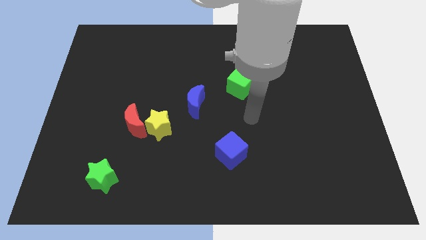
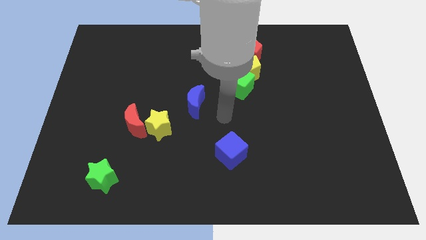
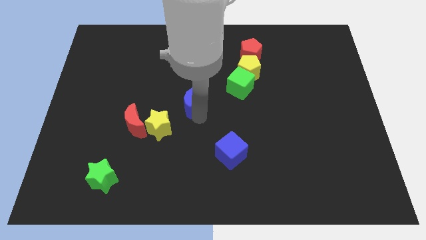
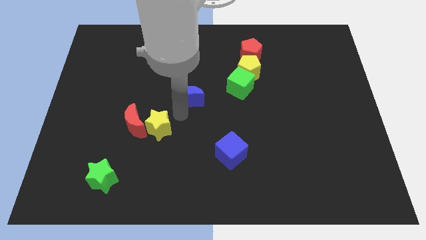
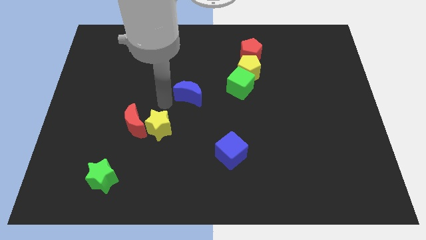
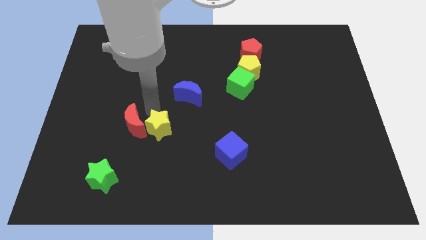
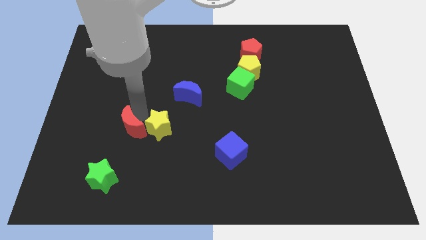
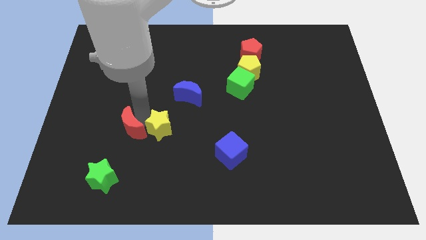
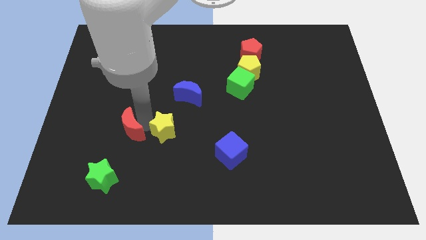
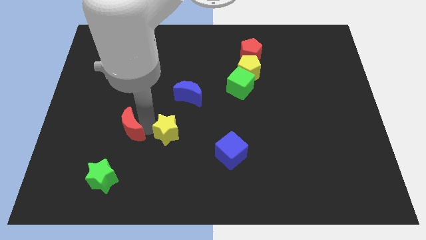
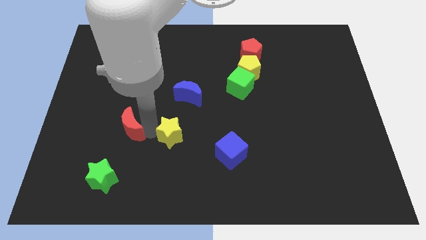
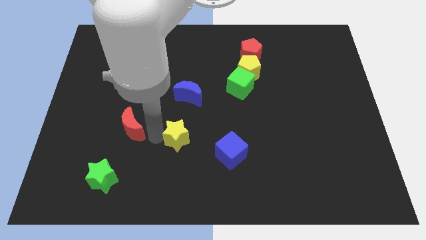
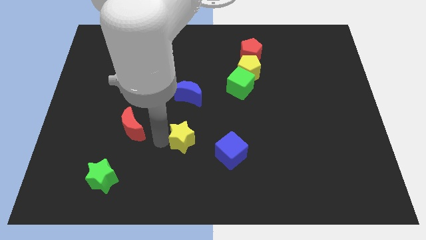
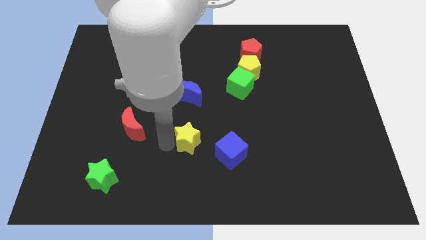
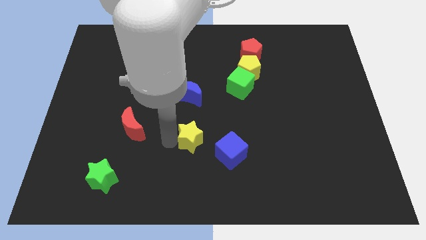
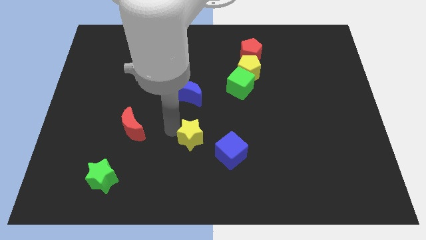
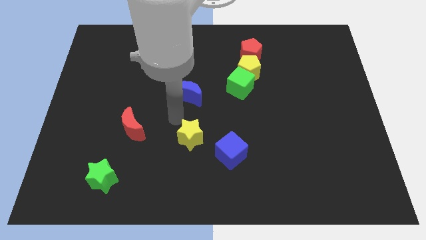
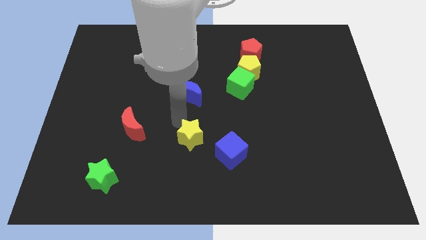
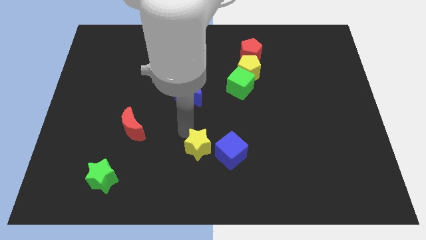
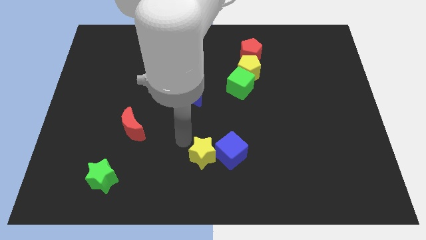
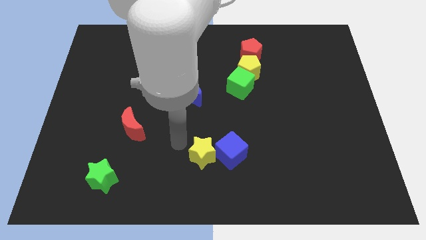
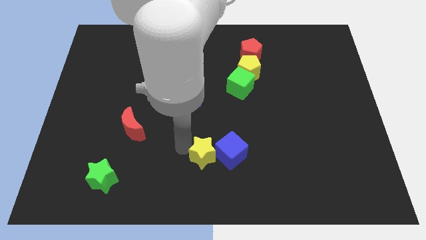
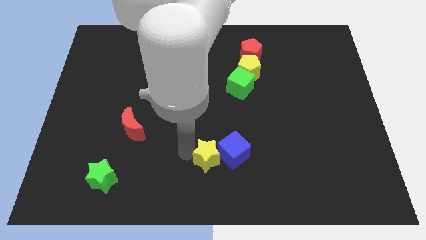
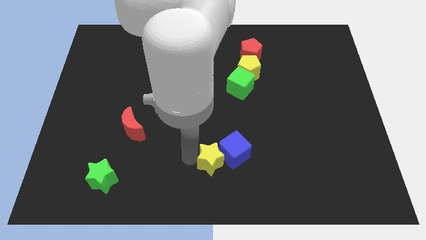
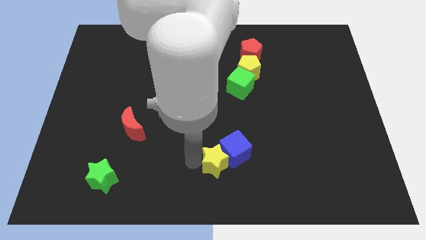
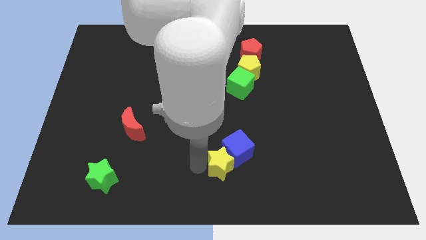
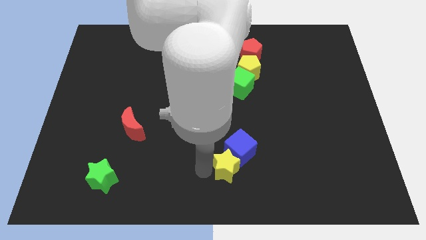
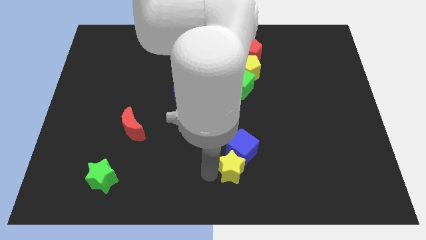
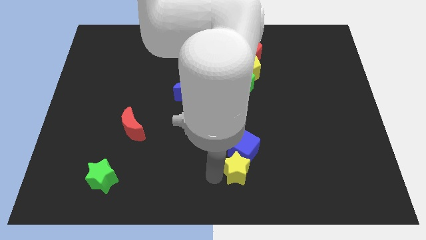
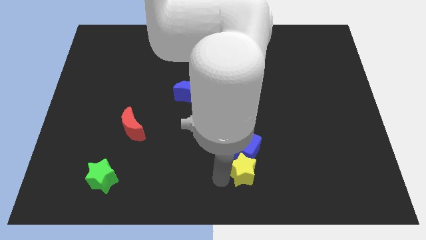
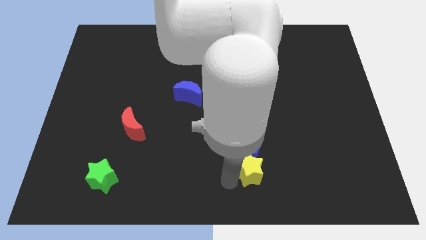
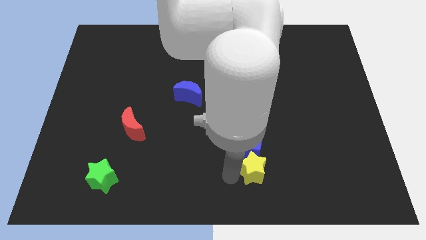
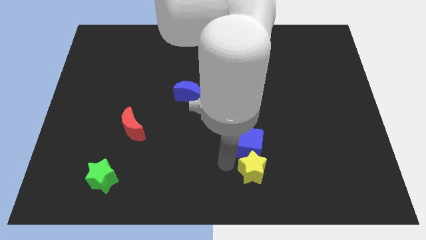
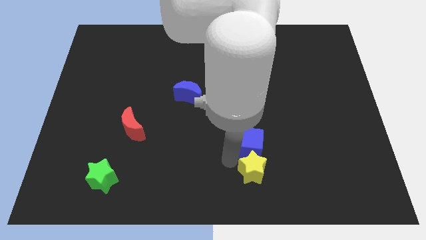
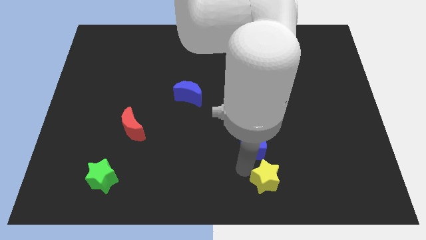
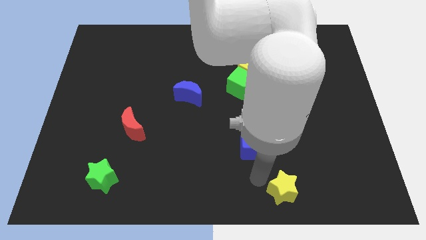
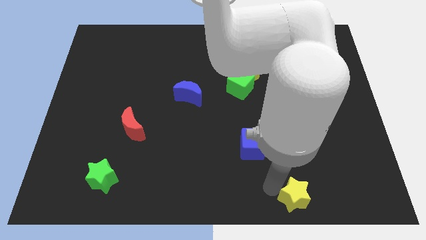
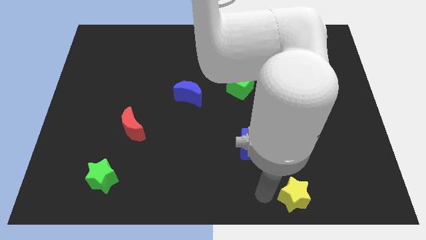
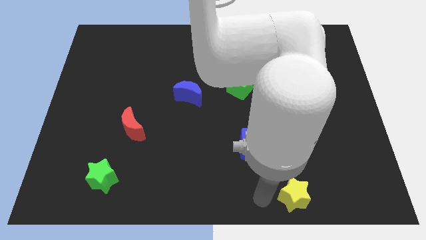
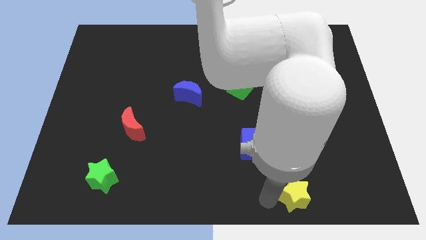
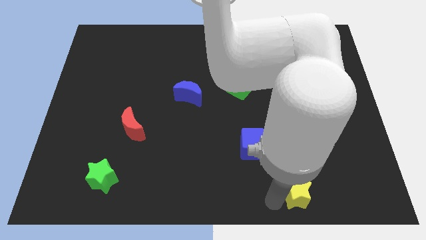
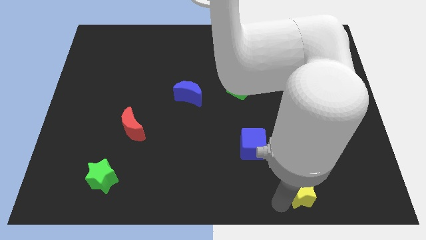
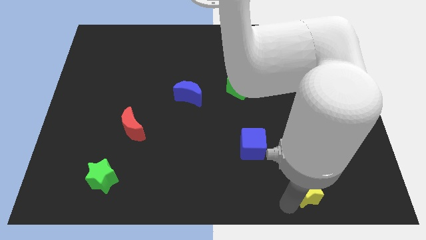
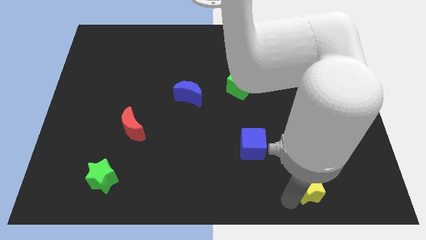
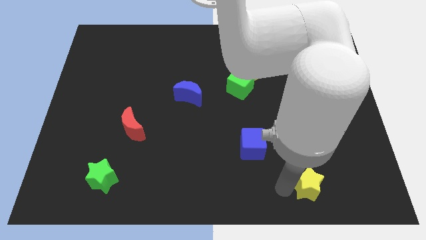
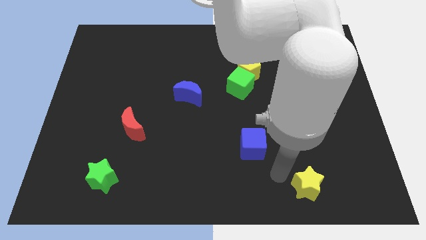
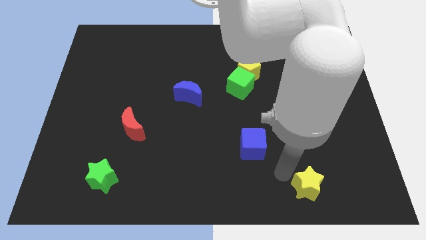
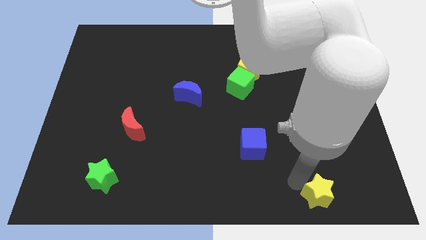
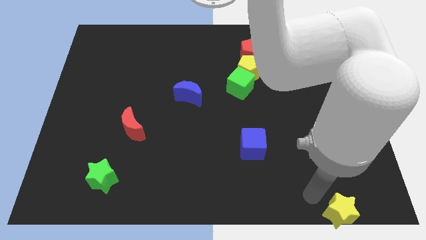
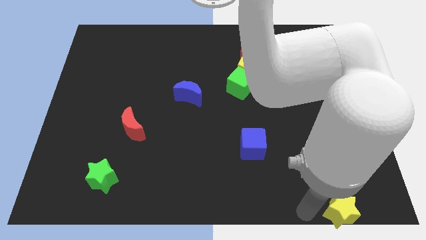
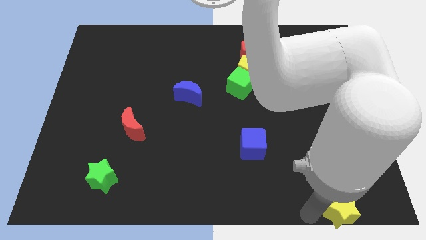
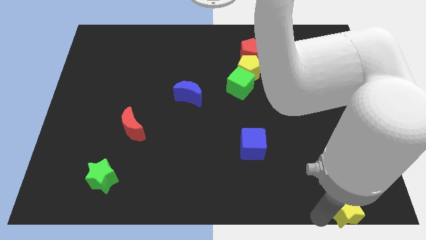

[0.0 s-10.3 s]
put the yellow star to the bottom right of the board

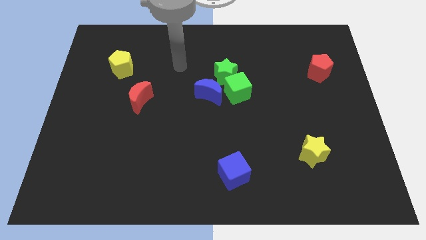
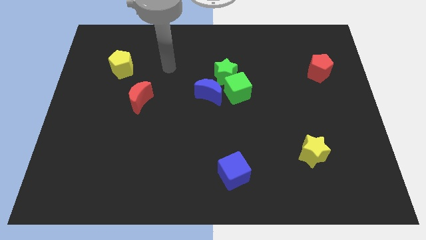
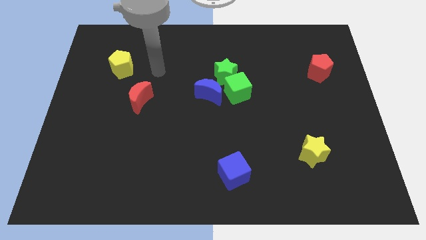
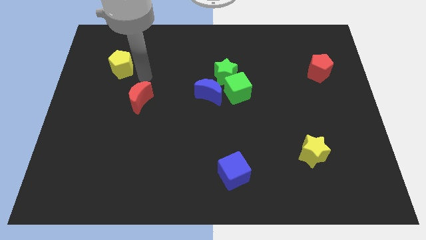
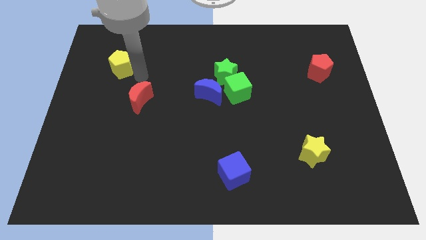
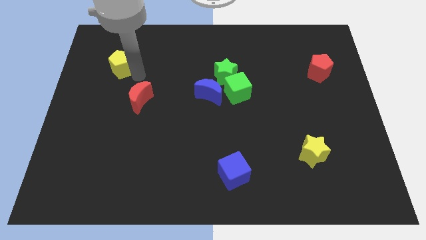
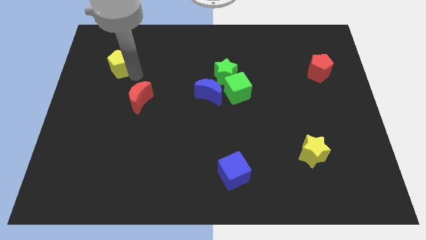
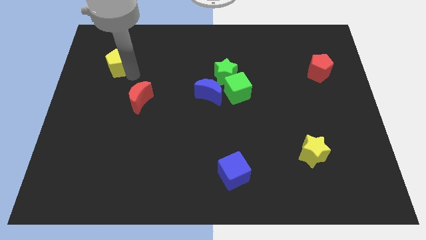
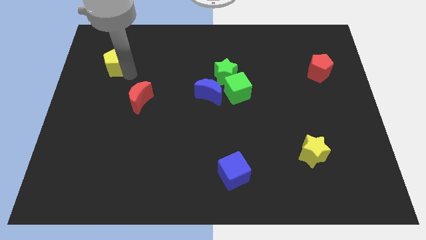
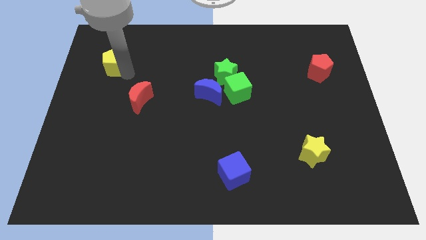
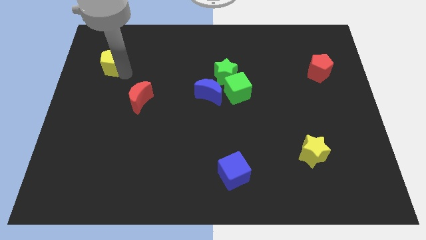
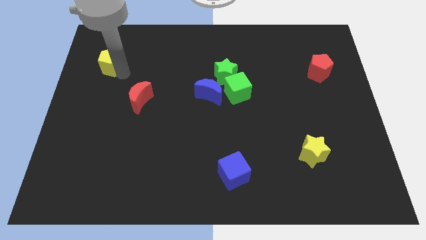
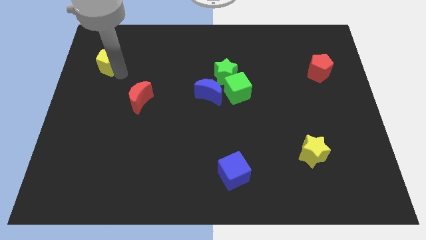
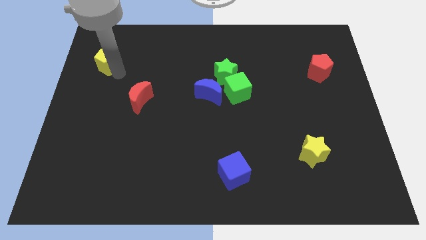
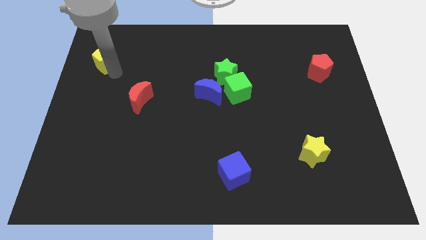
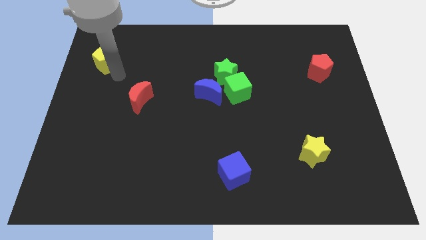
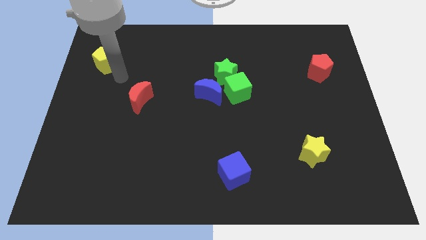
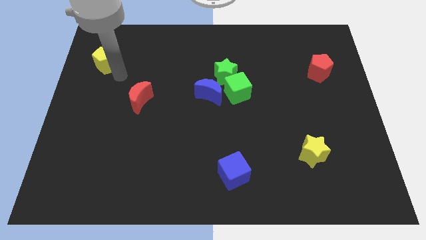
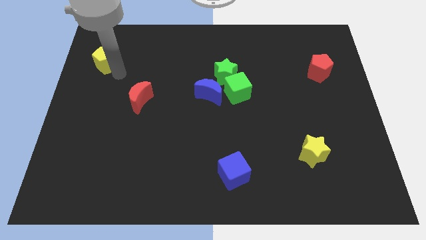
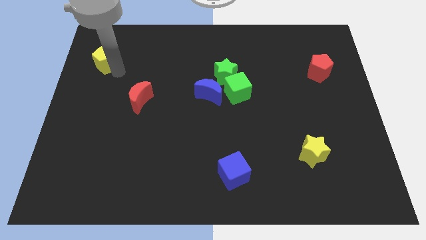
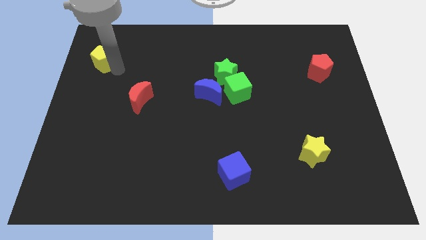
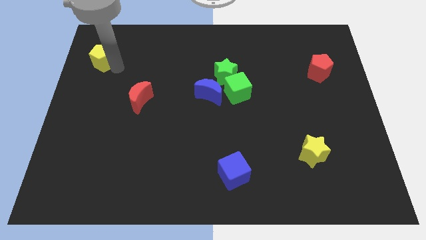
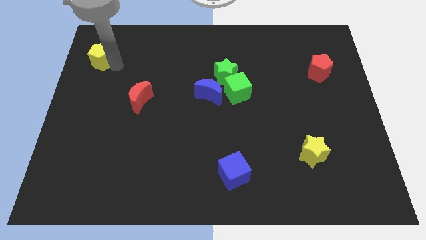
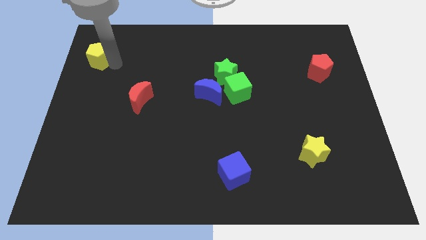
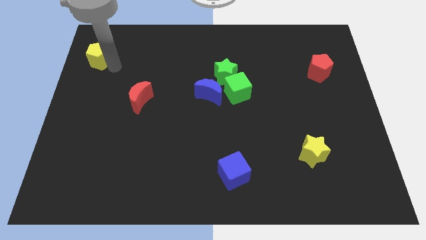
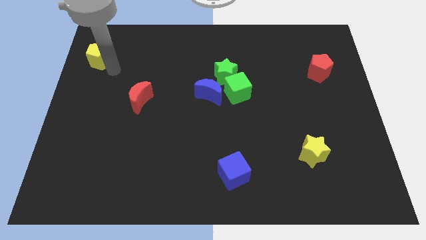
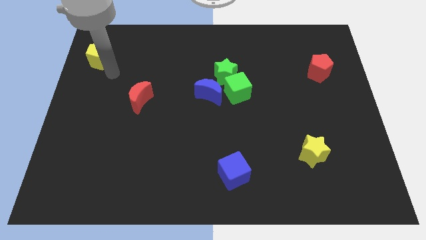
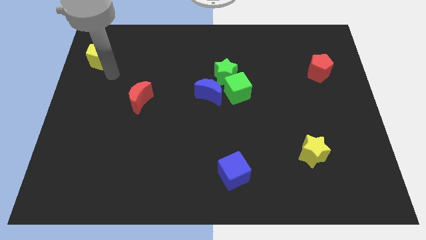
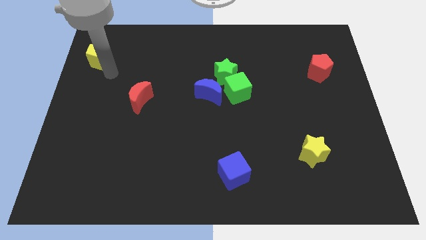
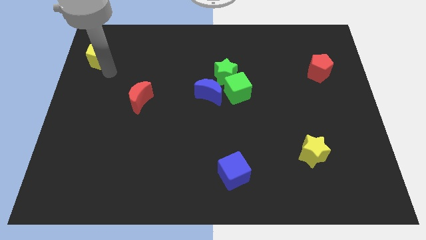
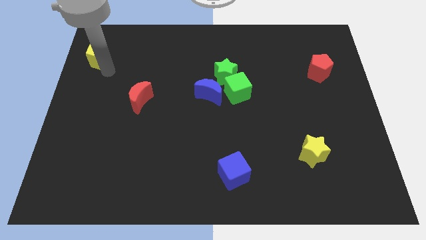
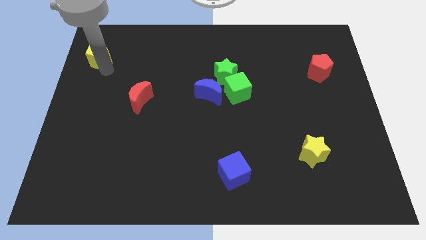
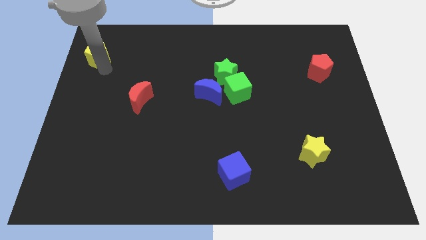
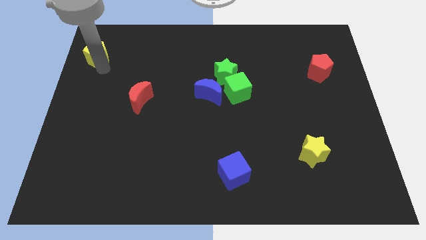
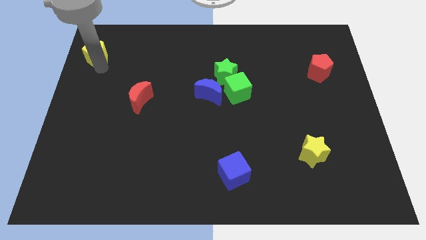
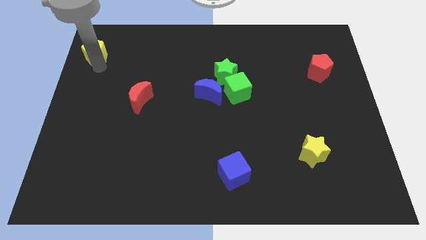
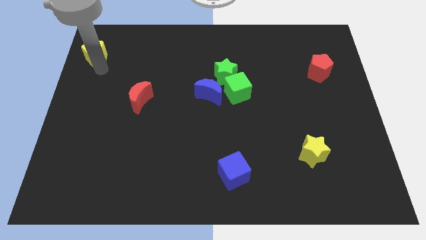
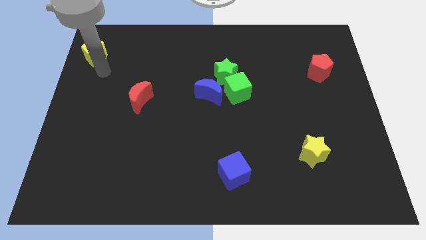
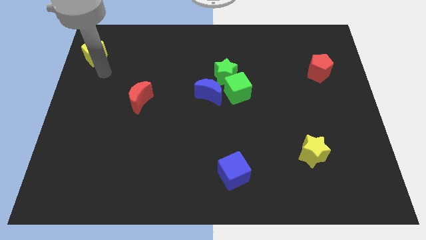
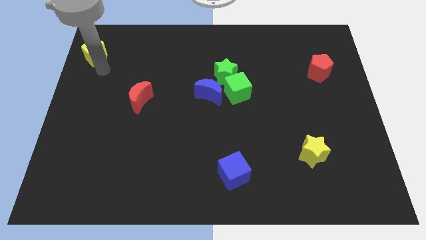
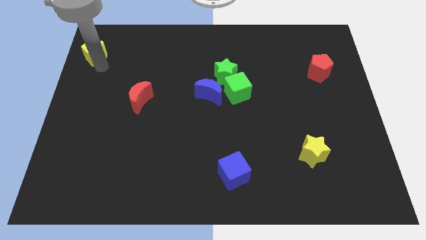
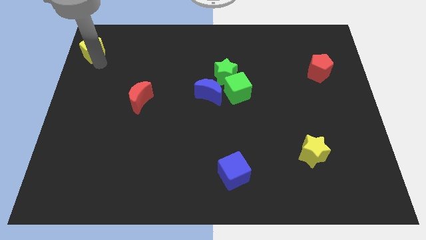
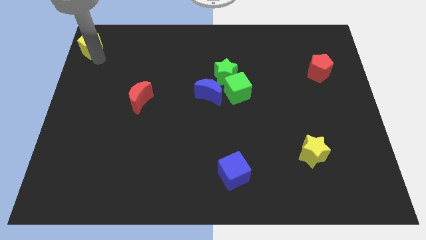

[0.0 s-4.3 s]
move the yellow pentagon to the top left
